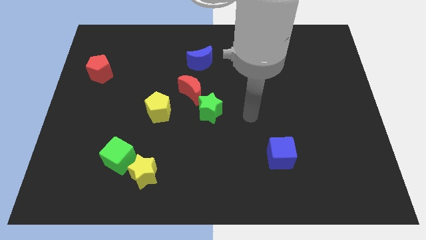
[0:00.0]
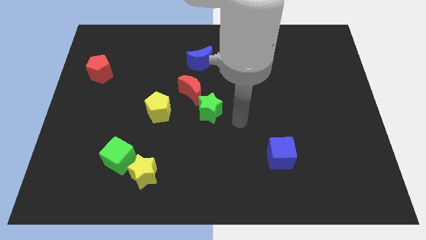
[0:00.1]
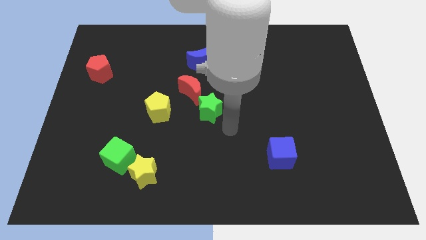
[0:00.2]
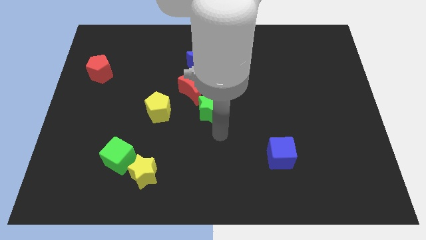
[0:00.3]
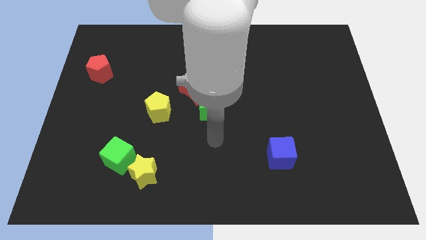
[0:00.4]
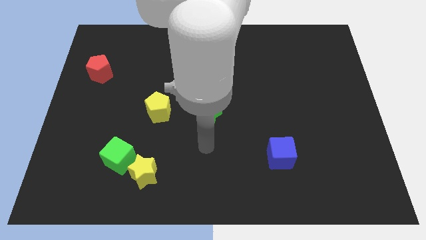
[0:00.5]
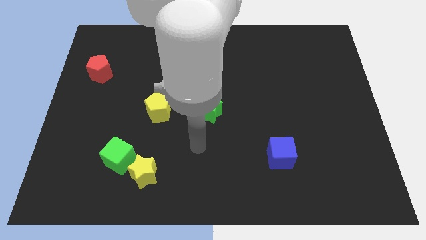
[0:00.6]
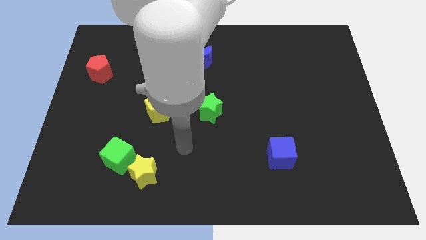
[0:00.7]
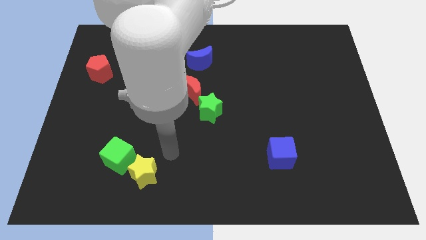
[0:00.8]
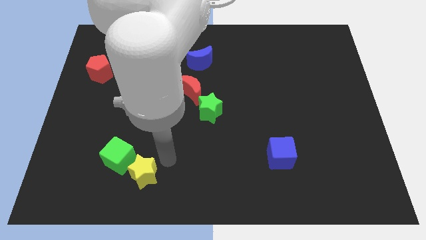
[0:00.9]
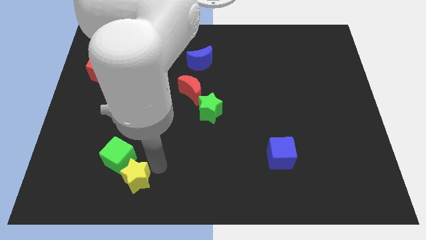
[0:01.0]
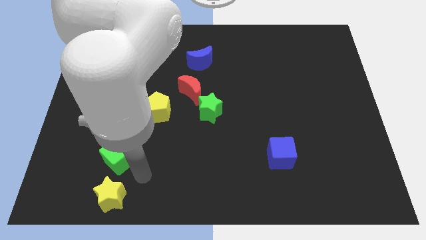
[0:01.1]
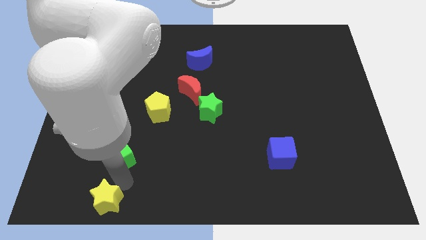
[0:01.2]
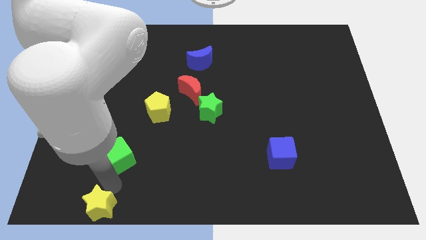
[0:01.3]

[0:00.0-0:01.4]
move the green cube away from the yellow star

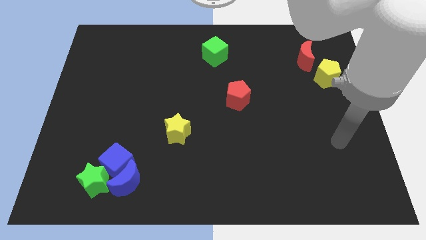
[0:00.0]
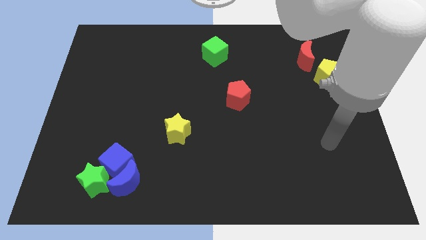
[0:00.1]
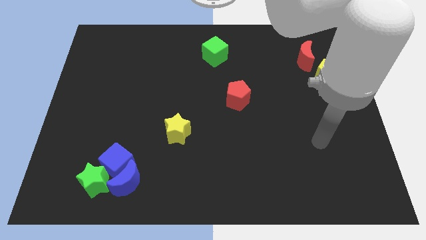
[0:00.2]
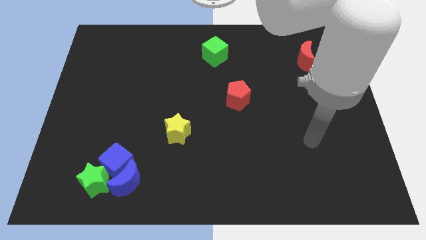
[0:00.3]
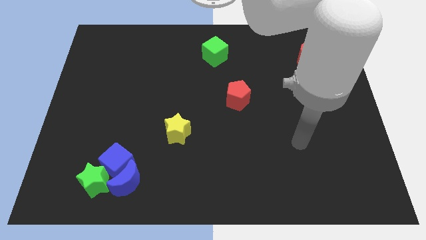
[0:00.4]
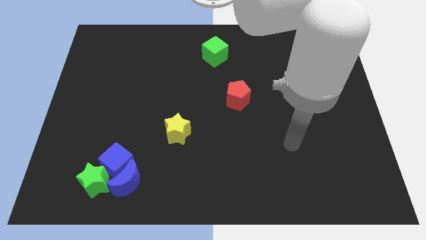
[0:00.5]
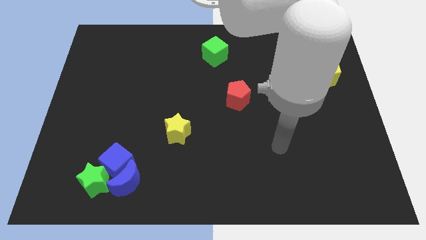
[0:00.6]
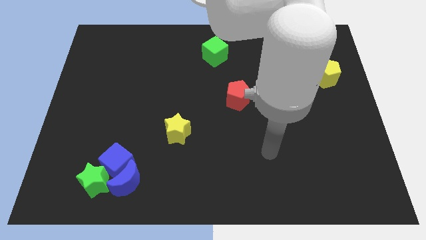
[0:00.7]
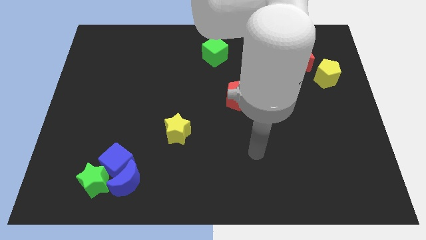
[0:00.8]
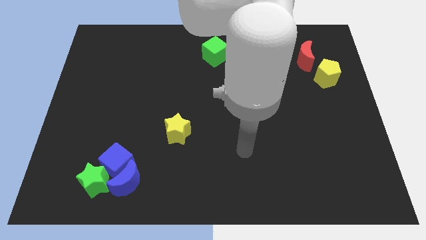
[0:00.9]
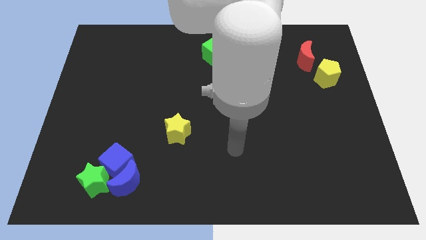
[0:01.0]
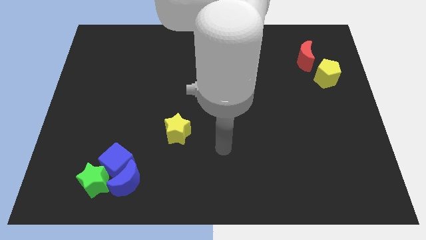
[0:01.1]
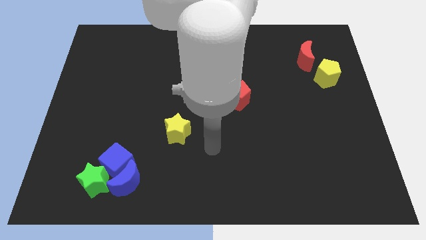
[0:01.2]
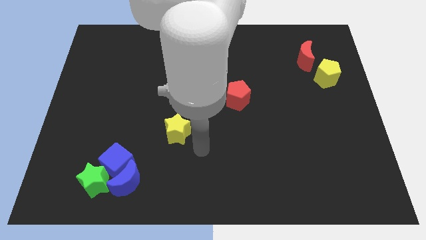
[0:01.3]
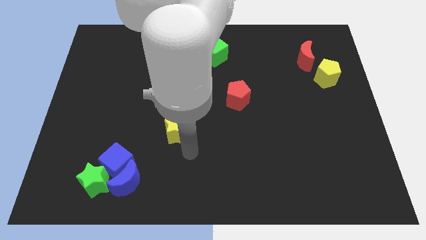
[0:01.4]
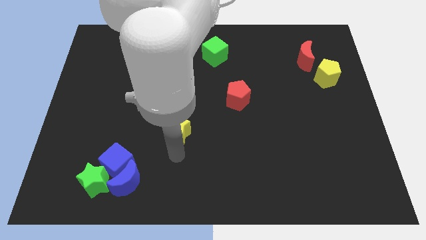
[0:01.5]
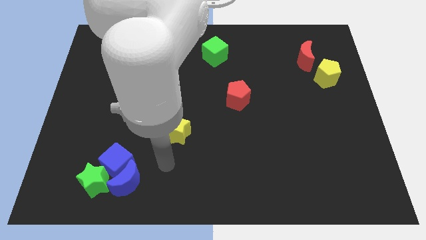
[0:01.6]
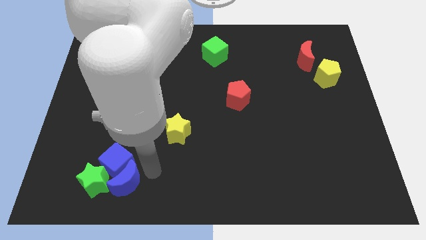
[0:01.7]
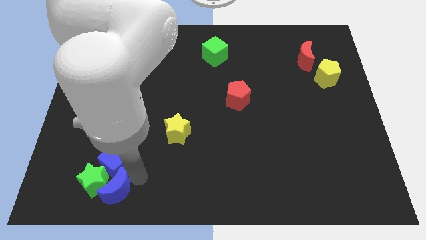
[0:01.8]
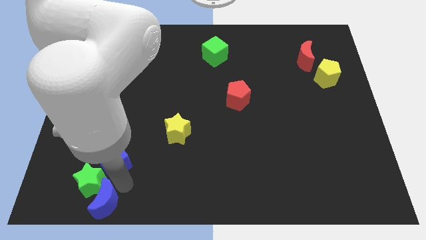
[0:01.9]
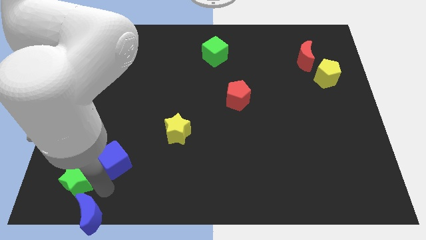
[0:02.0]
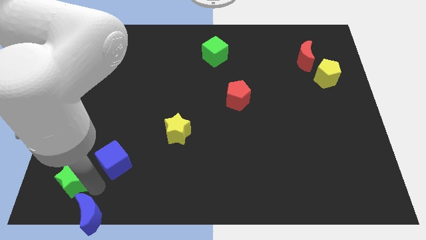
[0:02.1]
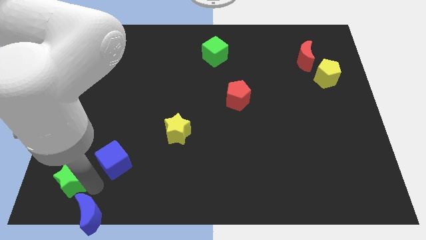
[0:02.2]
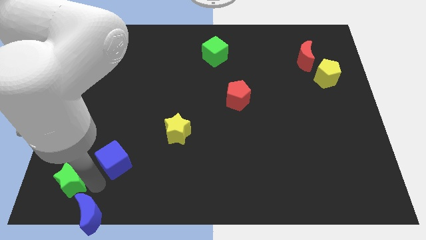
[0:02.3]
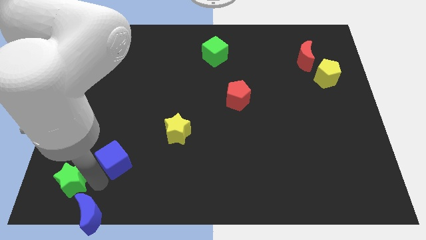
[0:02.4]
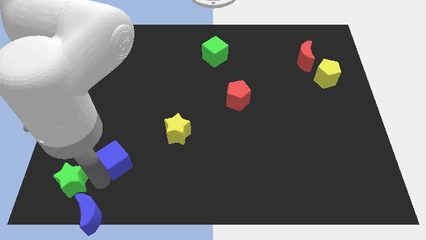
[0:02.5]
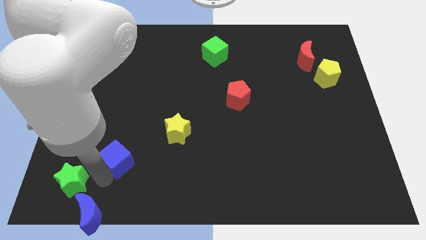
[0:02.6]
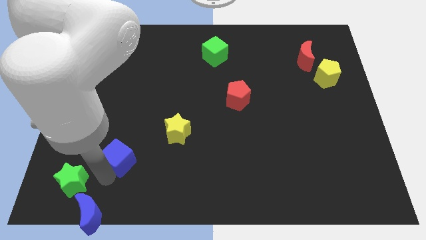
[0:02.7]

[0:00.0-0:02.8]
separate the blue cube from the blue moon and green star

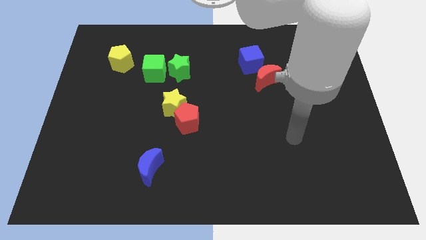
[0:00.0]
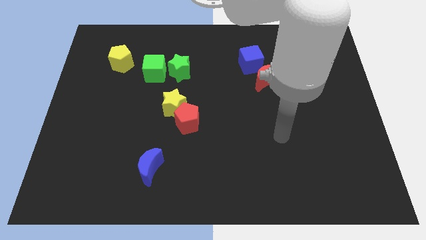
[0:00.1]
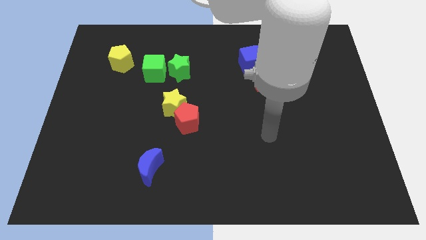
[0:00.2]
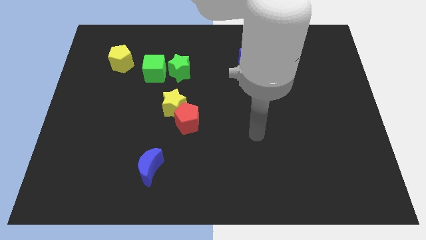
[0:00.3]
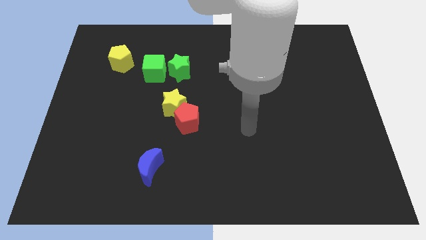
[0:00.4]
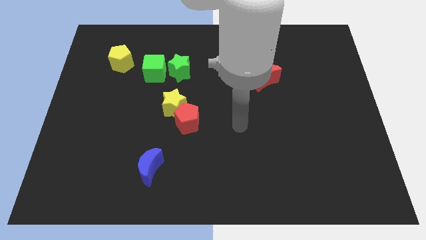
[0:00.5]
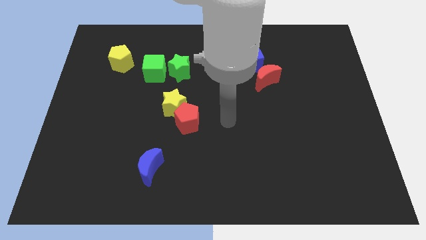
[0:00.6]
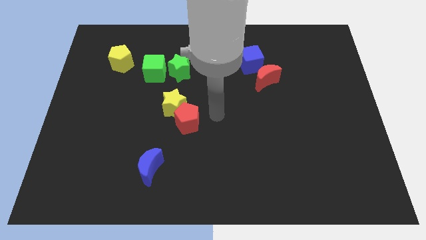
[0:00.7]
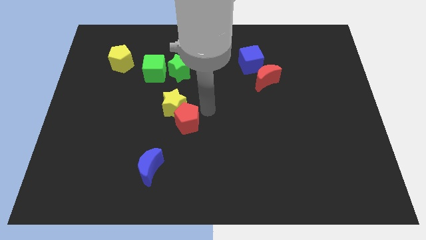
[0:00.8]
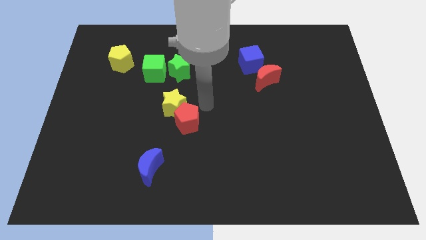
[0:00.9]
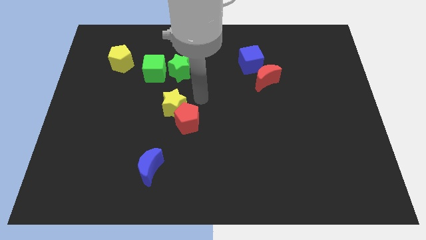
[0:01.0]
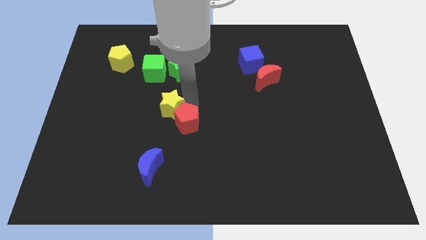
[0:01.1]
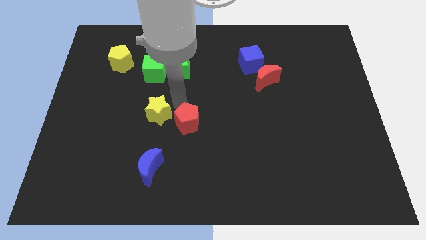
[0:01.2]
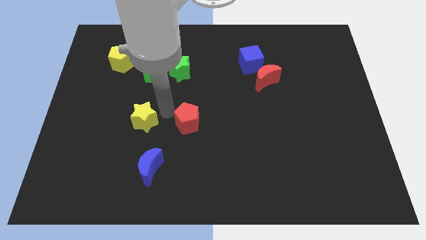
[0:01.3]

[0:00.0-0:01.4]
pull the red pentagon apart from the yellow star

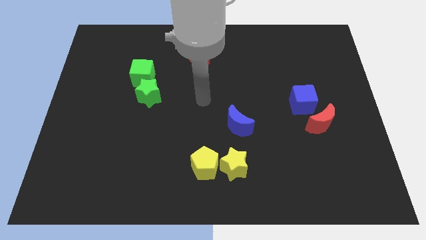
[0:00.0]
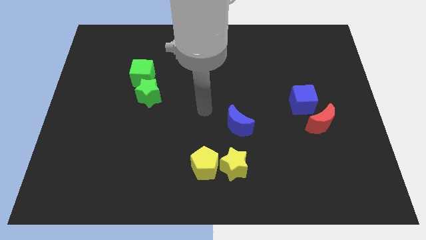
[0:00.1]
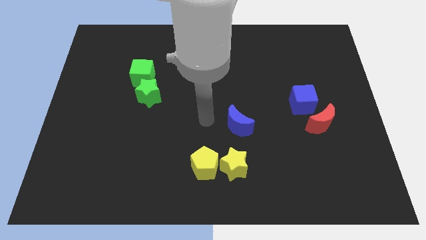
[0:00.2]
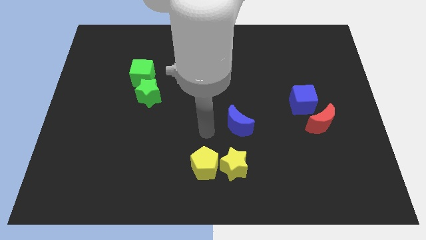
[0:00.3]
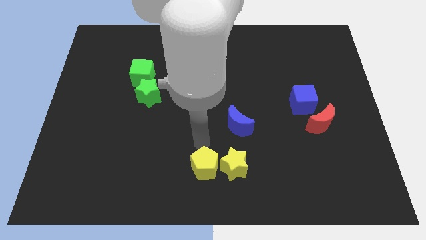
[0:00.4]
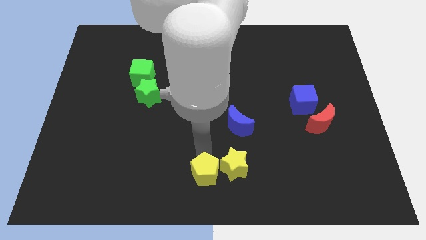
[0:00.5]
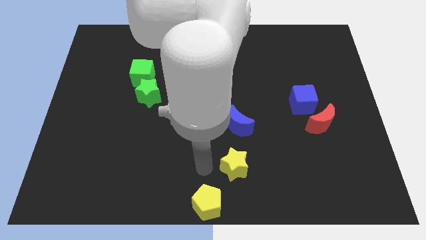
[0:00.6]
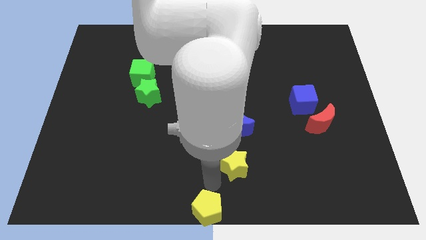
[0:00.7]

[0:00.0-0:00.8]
pull the yellow star apart from the yellow pentagon

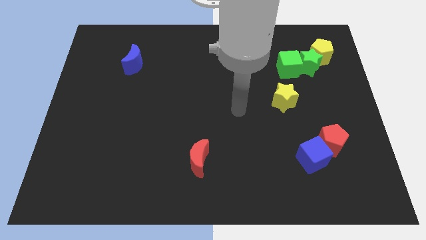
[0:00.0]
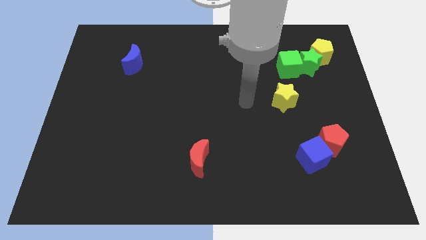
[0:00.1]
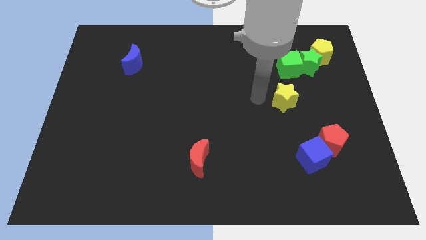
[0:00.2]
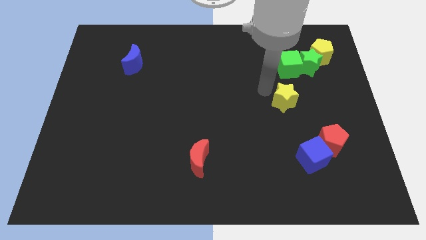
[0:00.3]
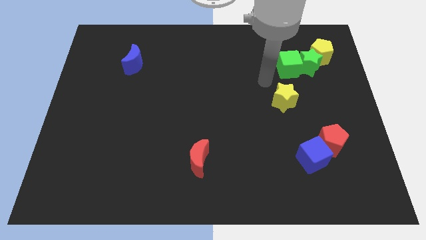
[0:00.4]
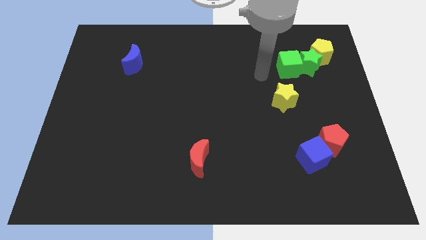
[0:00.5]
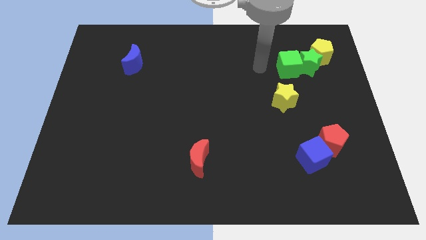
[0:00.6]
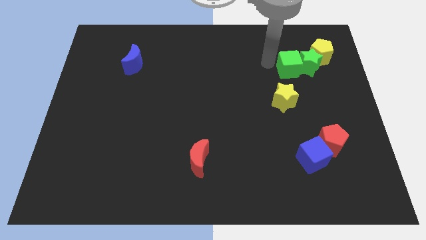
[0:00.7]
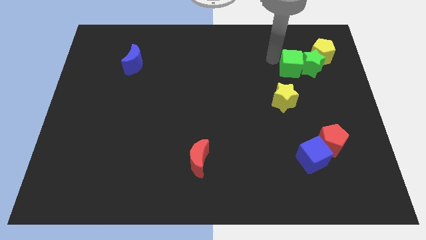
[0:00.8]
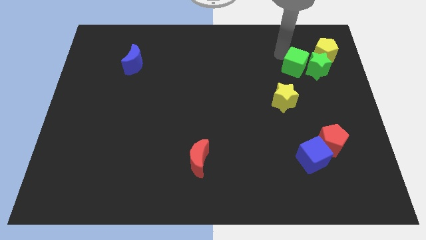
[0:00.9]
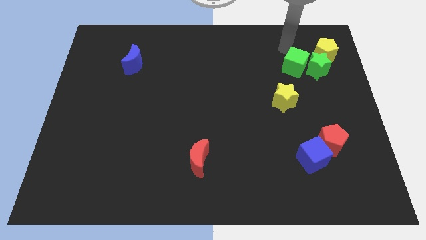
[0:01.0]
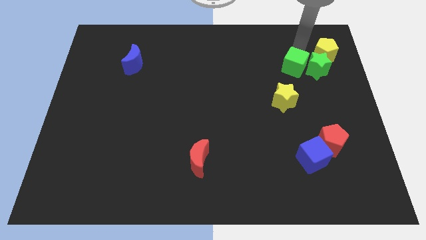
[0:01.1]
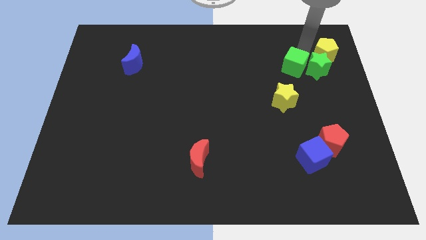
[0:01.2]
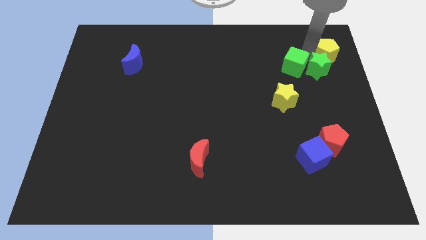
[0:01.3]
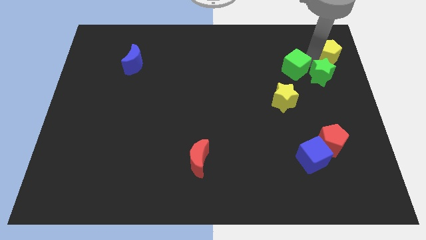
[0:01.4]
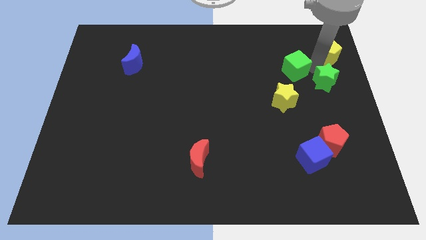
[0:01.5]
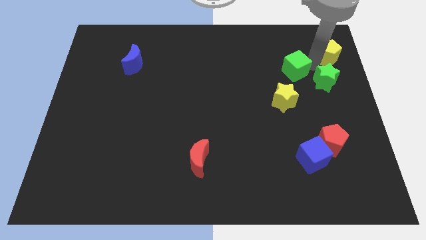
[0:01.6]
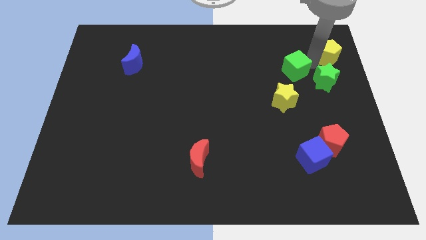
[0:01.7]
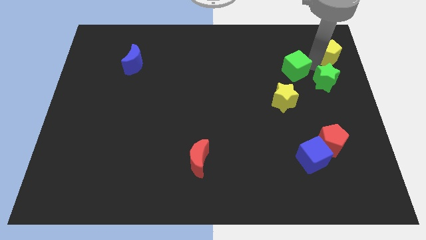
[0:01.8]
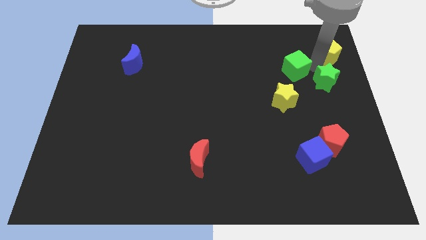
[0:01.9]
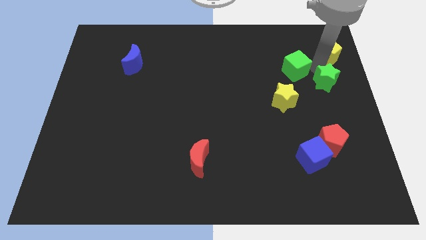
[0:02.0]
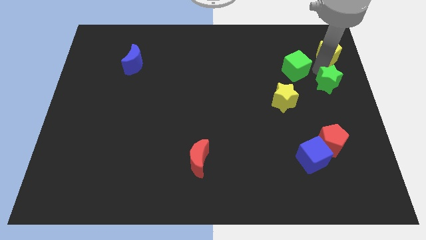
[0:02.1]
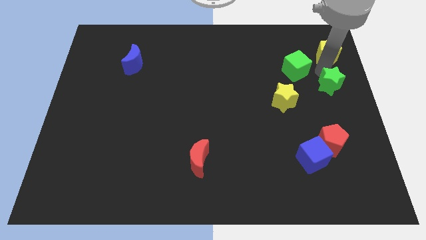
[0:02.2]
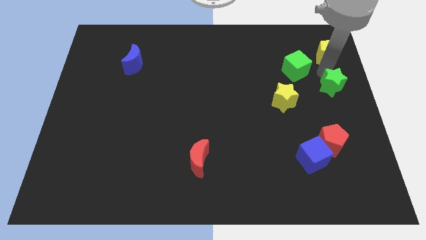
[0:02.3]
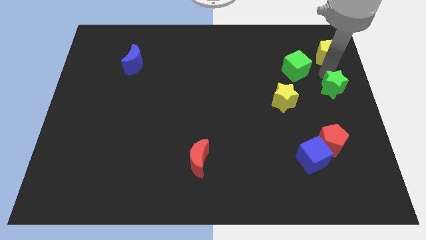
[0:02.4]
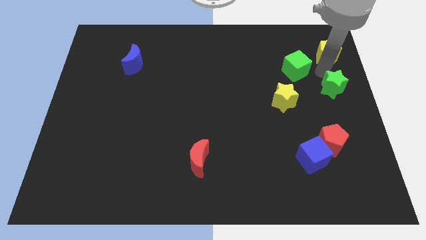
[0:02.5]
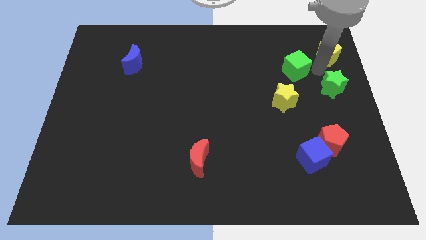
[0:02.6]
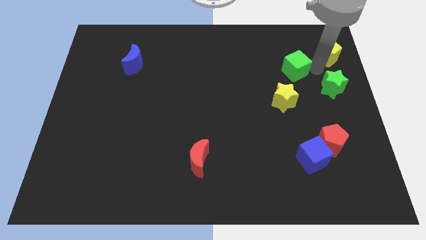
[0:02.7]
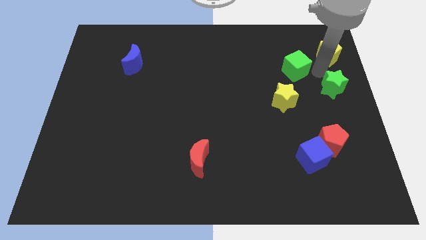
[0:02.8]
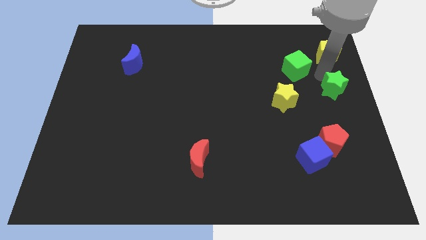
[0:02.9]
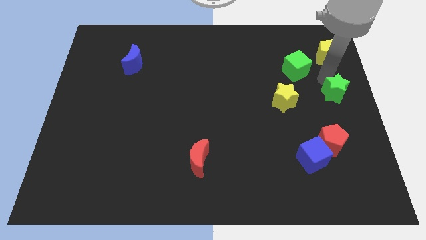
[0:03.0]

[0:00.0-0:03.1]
pull the green star apart from the green cube and yellow pentagon
